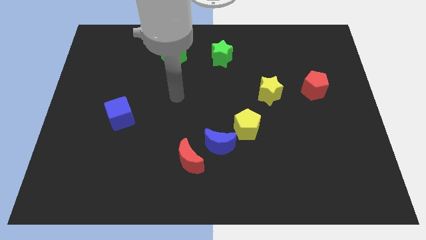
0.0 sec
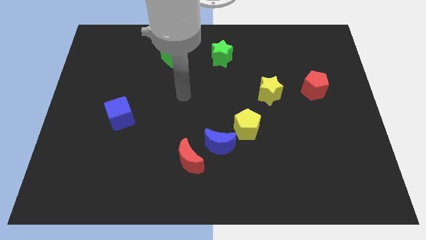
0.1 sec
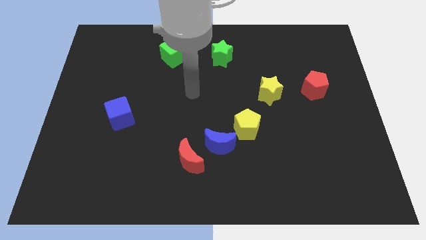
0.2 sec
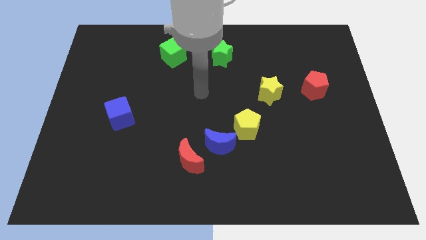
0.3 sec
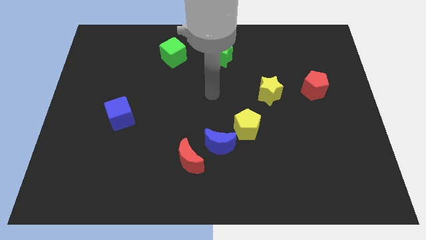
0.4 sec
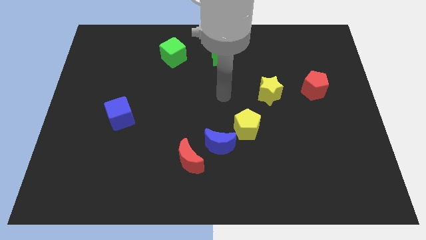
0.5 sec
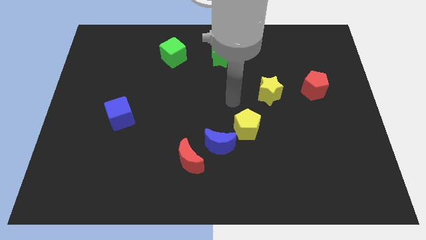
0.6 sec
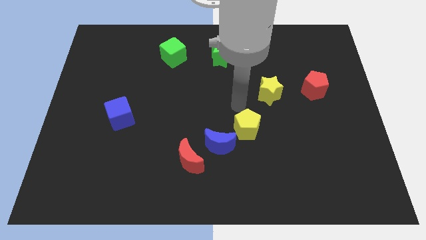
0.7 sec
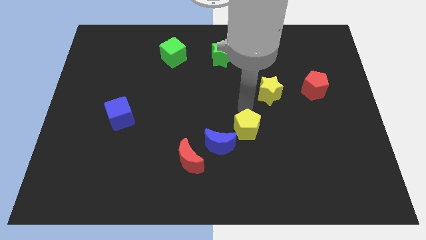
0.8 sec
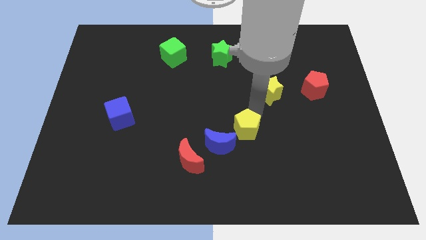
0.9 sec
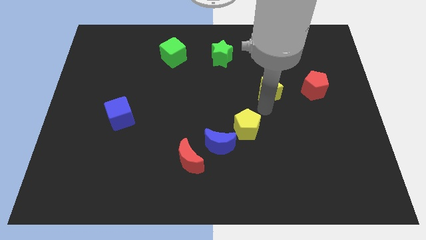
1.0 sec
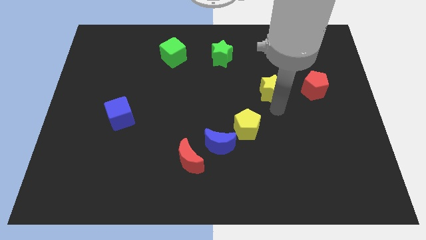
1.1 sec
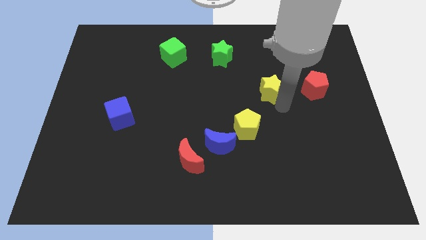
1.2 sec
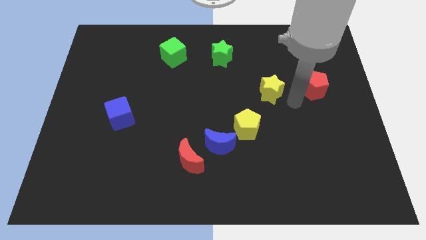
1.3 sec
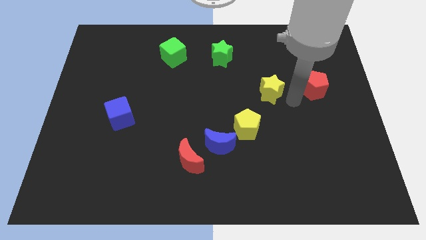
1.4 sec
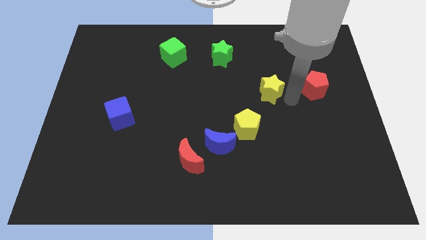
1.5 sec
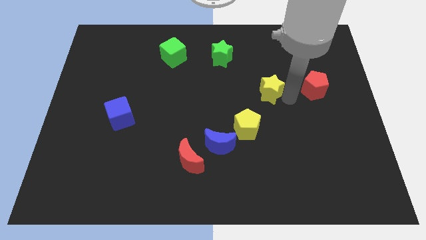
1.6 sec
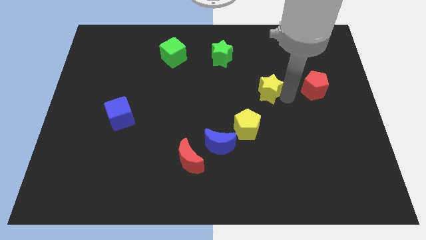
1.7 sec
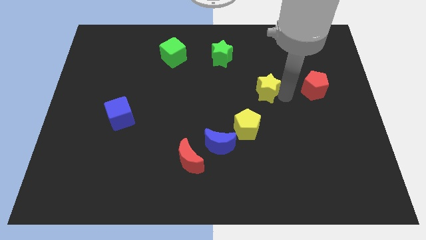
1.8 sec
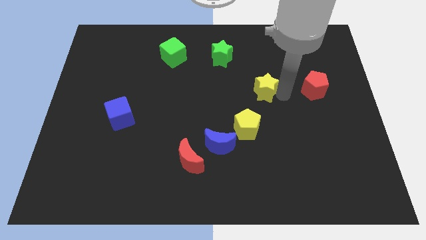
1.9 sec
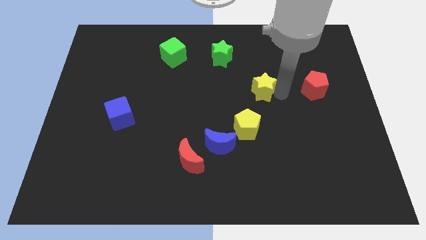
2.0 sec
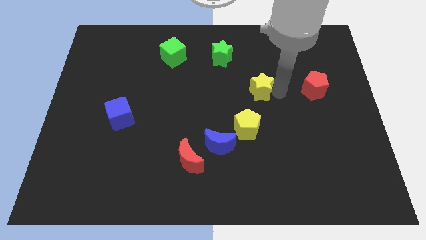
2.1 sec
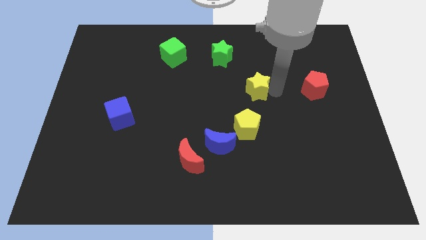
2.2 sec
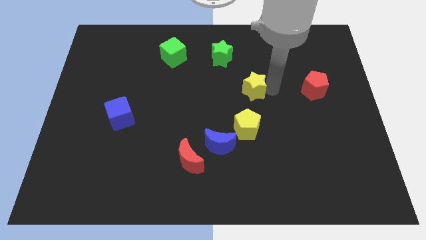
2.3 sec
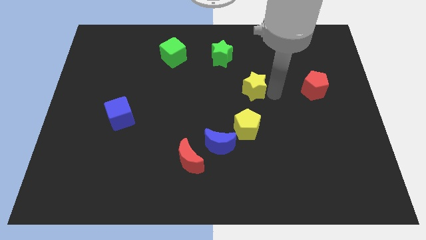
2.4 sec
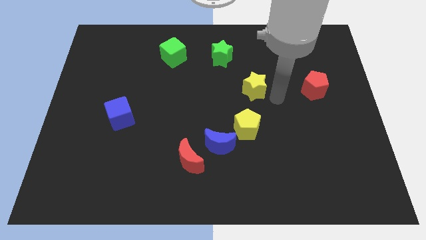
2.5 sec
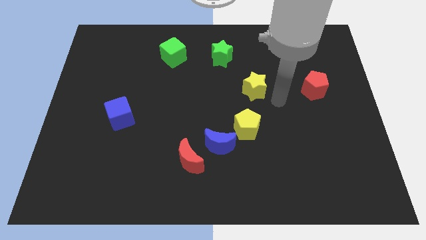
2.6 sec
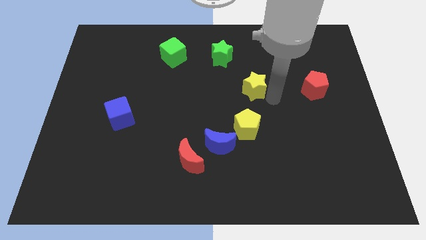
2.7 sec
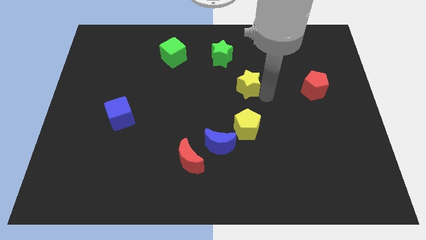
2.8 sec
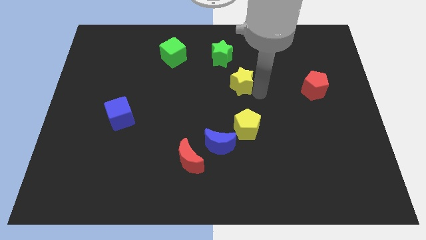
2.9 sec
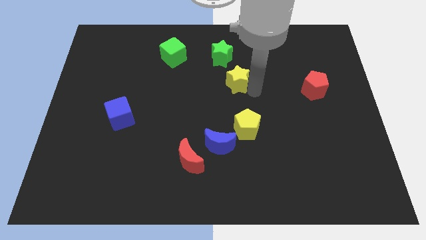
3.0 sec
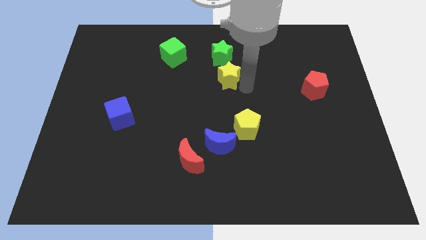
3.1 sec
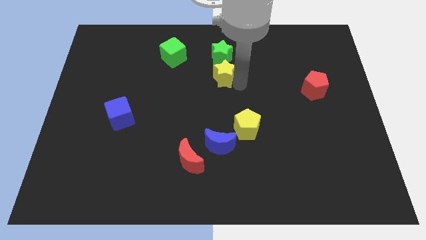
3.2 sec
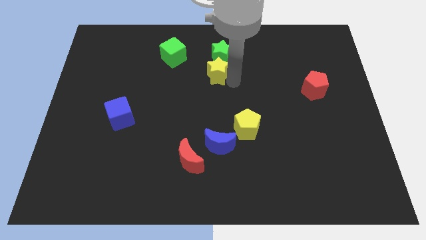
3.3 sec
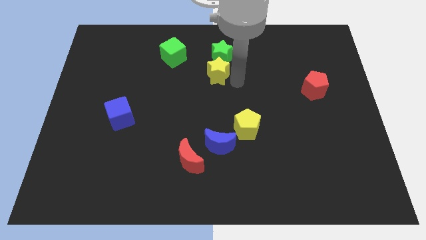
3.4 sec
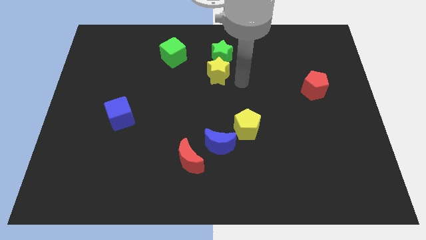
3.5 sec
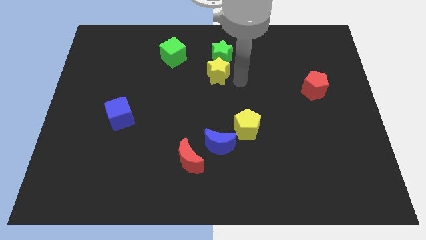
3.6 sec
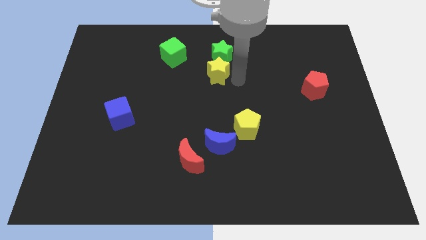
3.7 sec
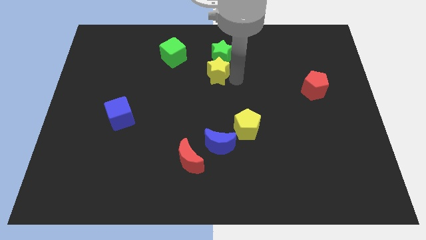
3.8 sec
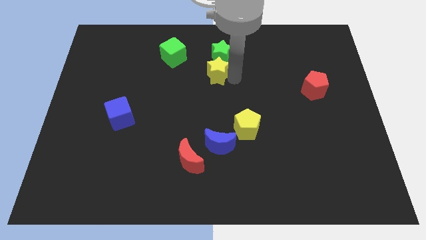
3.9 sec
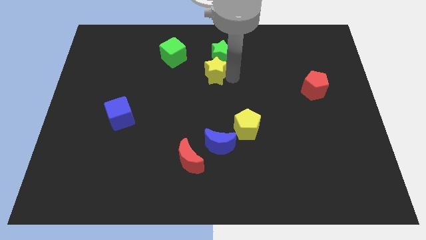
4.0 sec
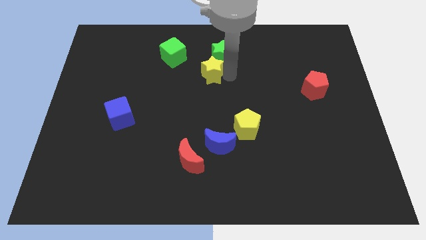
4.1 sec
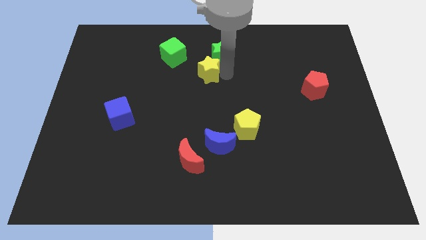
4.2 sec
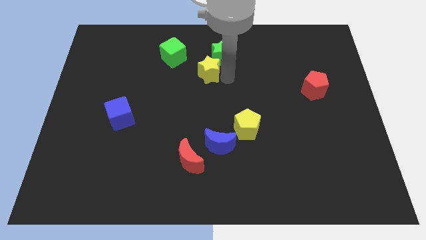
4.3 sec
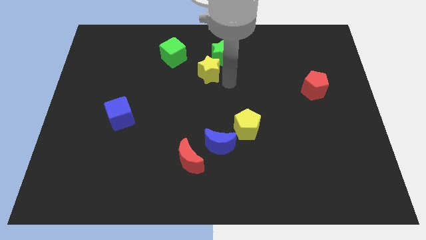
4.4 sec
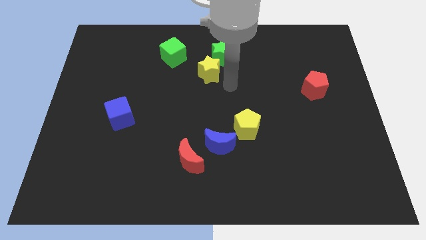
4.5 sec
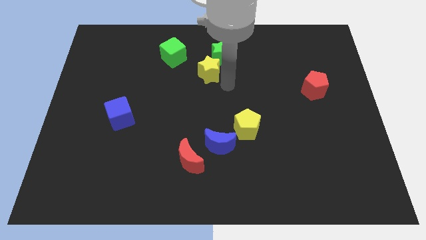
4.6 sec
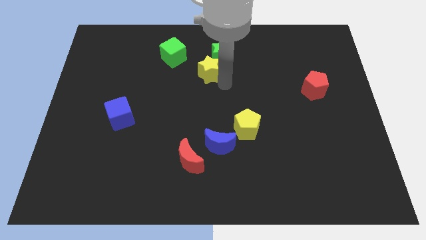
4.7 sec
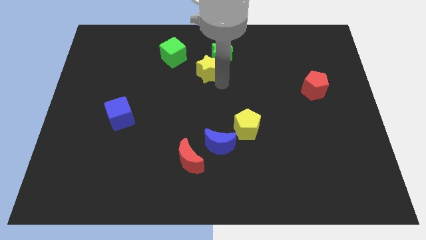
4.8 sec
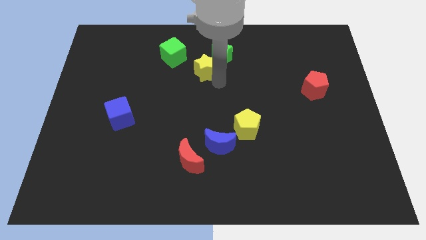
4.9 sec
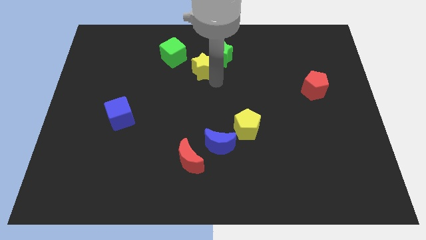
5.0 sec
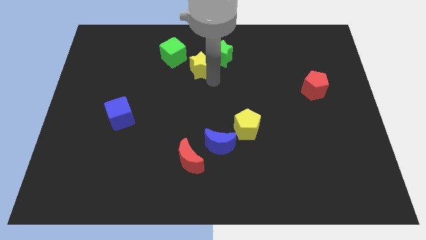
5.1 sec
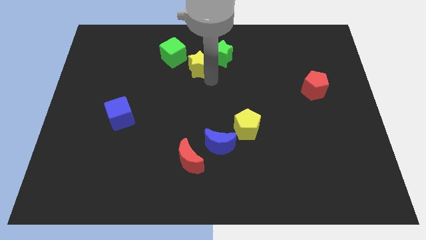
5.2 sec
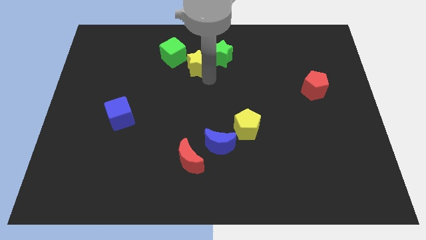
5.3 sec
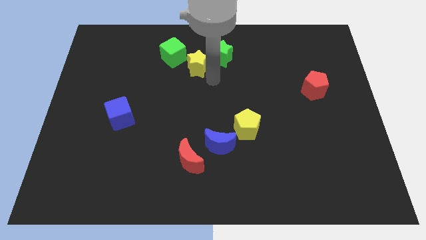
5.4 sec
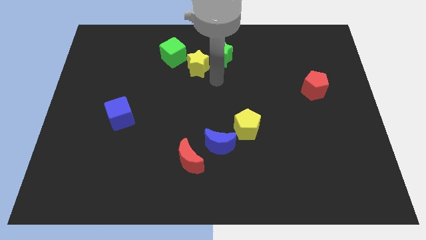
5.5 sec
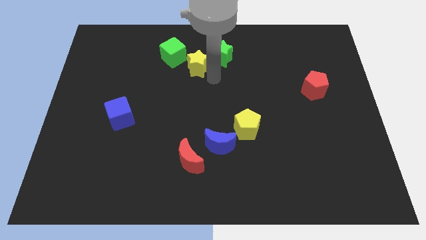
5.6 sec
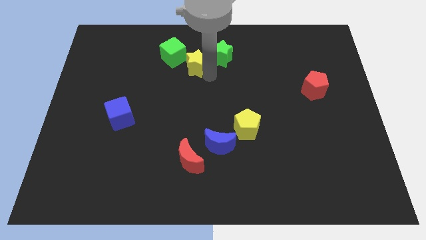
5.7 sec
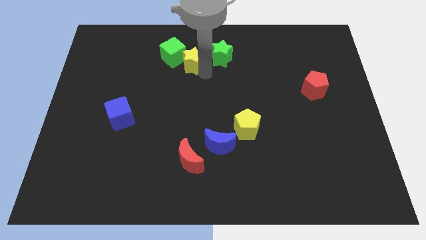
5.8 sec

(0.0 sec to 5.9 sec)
slide the yellow star next to the green cube
